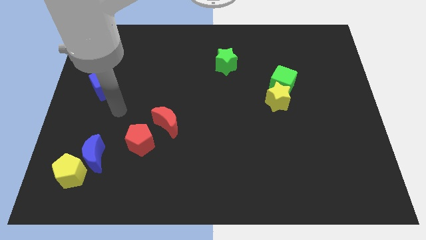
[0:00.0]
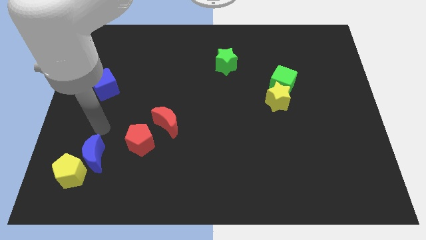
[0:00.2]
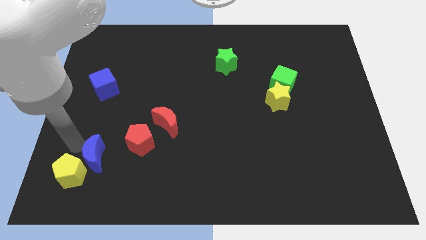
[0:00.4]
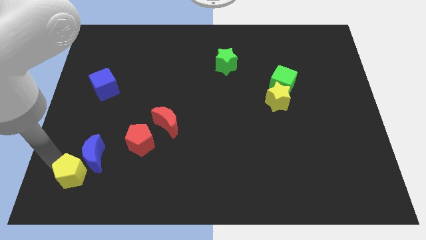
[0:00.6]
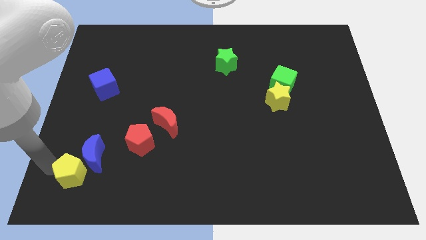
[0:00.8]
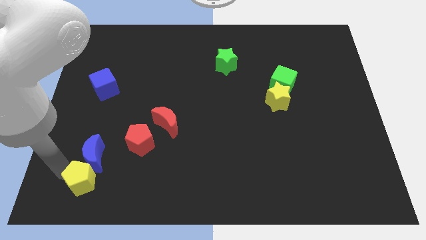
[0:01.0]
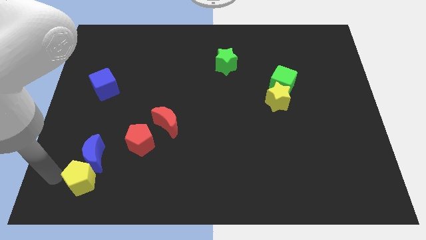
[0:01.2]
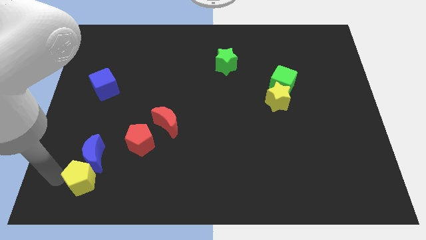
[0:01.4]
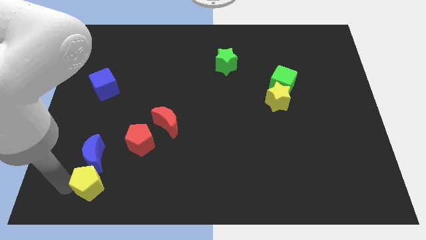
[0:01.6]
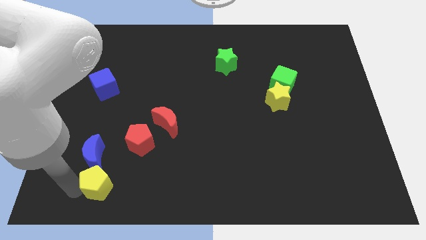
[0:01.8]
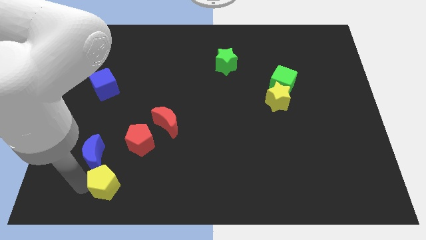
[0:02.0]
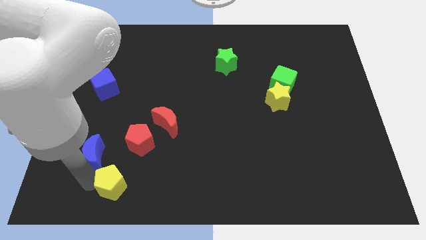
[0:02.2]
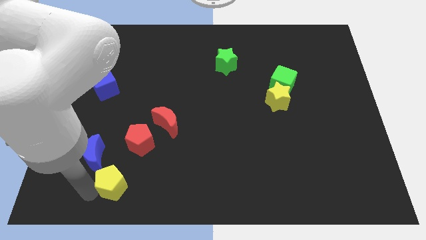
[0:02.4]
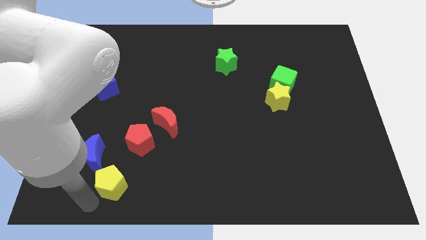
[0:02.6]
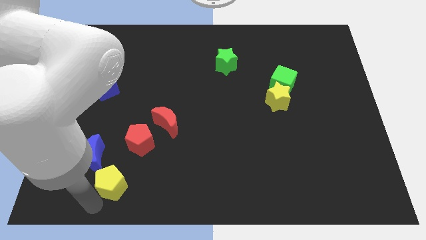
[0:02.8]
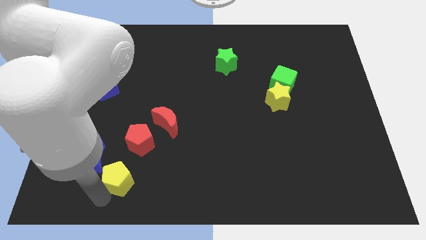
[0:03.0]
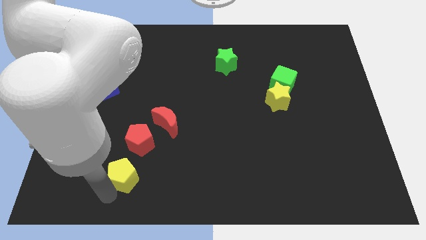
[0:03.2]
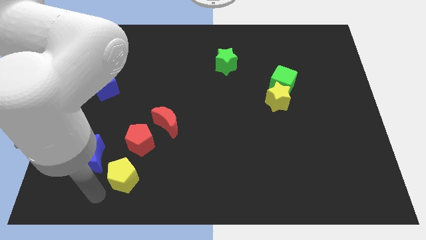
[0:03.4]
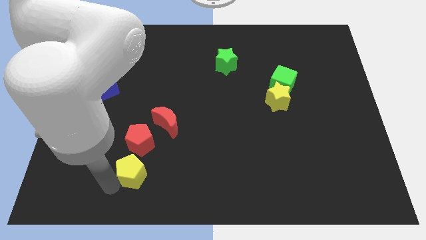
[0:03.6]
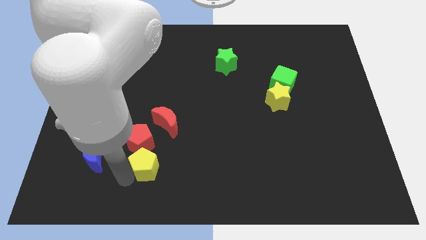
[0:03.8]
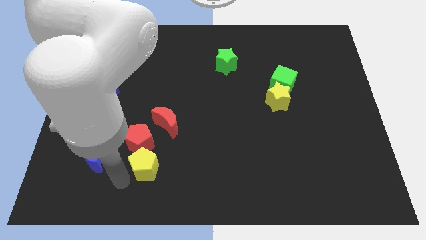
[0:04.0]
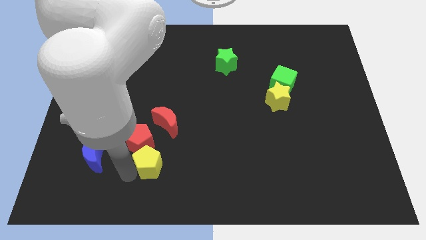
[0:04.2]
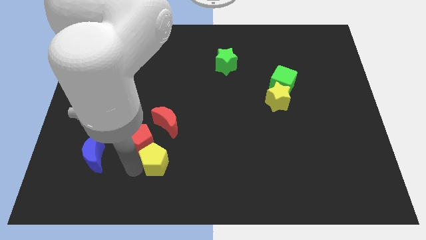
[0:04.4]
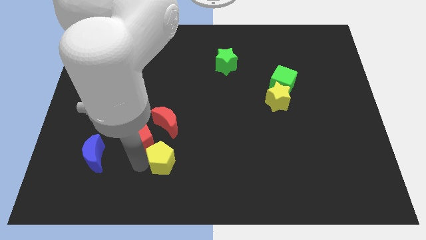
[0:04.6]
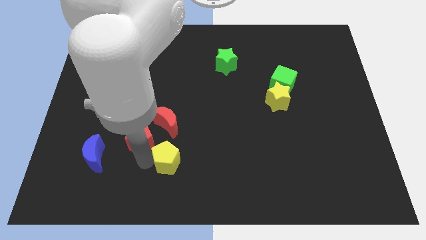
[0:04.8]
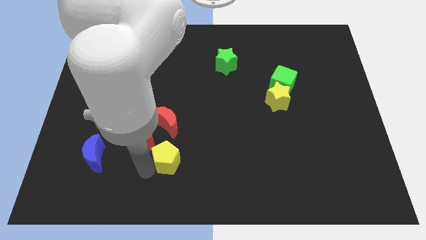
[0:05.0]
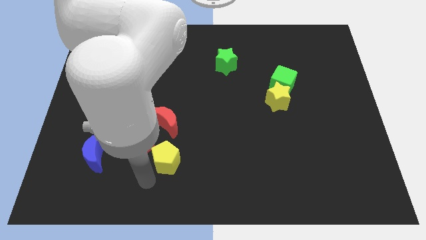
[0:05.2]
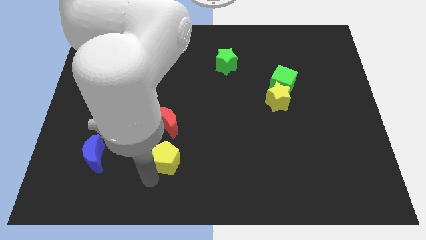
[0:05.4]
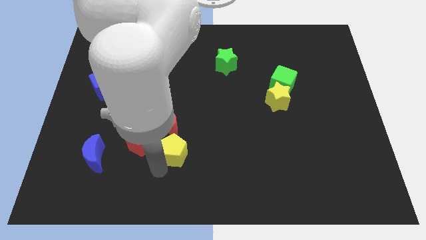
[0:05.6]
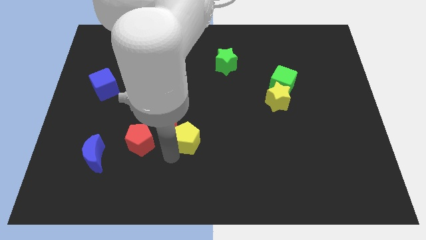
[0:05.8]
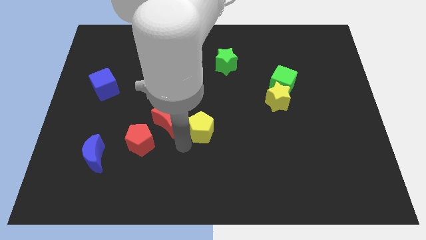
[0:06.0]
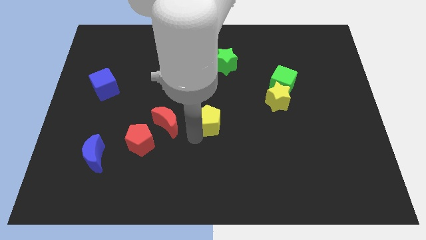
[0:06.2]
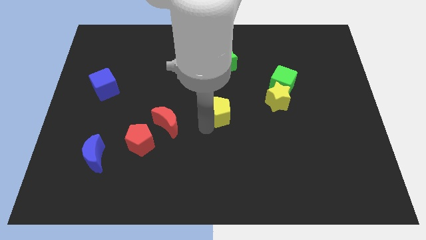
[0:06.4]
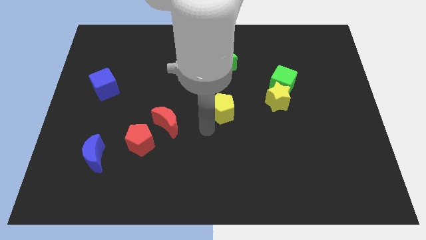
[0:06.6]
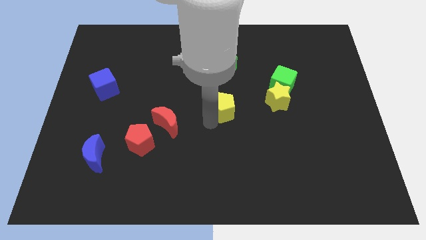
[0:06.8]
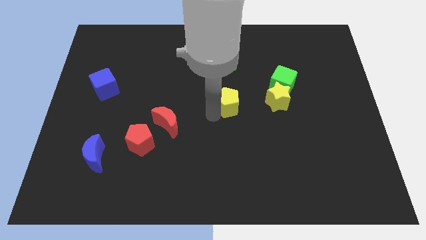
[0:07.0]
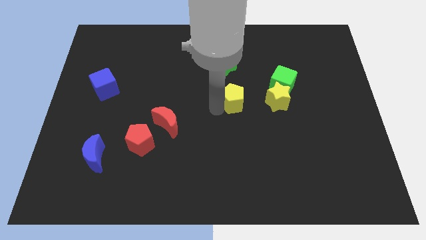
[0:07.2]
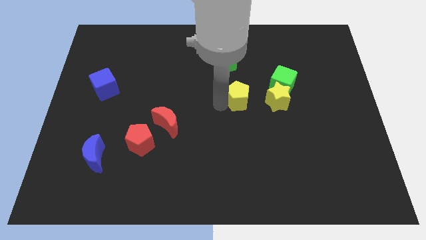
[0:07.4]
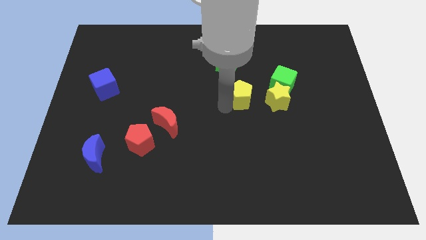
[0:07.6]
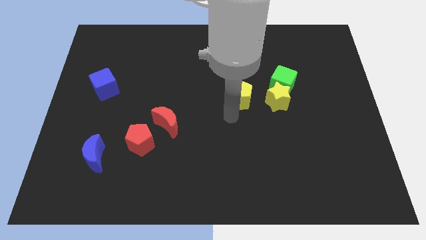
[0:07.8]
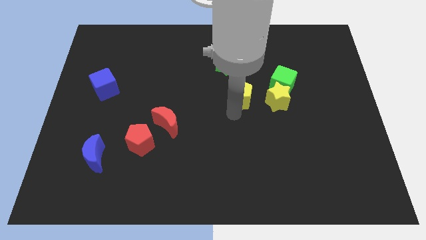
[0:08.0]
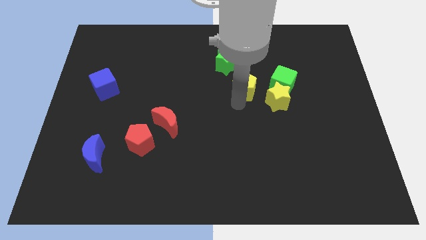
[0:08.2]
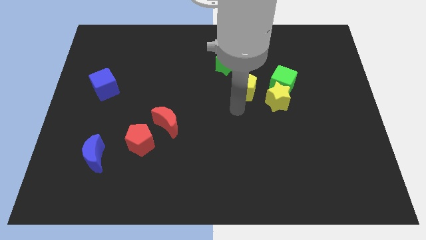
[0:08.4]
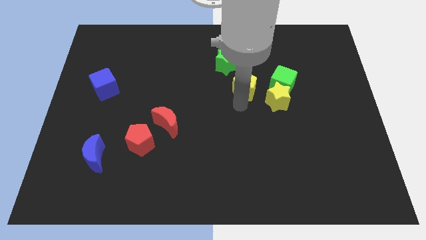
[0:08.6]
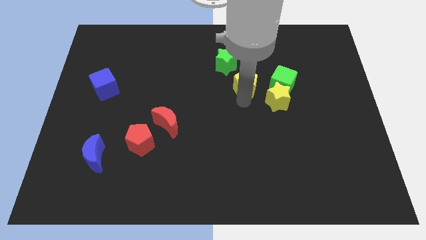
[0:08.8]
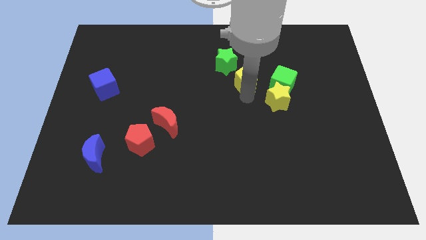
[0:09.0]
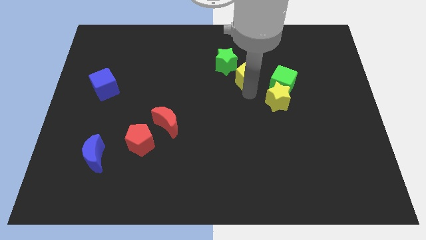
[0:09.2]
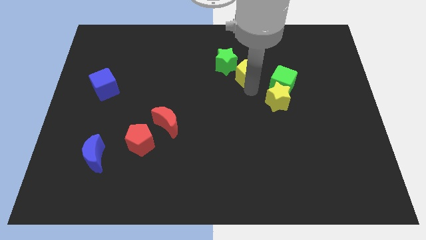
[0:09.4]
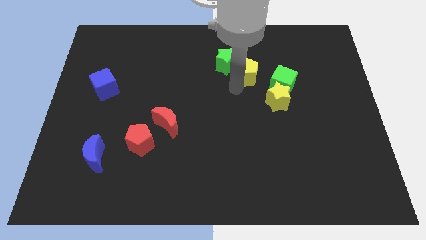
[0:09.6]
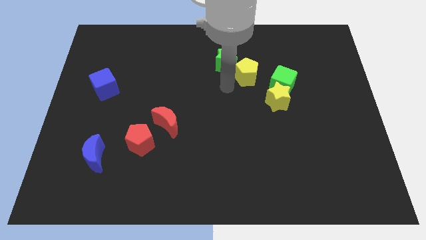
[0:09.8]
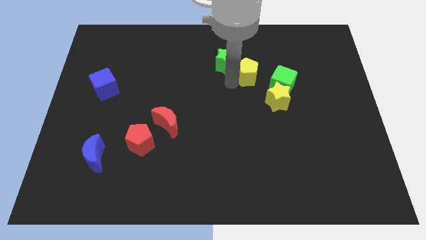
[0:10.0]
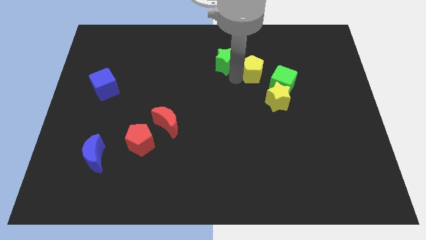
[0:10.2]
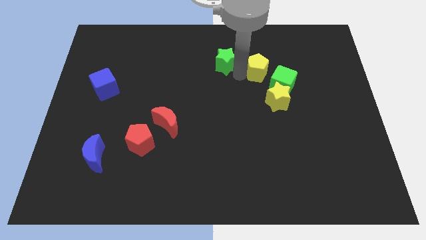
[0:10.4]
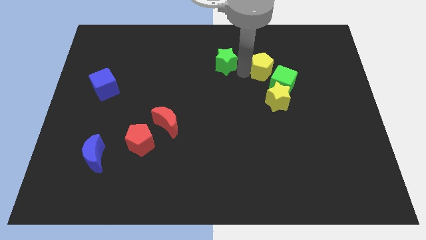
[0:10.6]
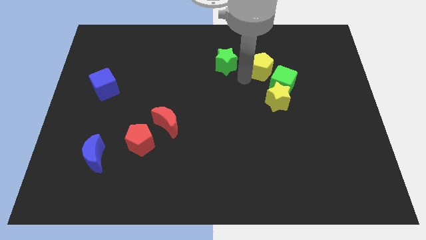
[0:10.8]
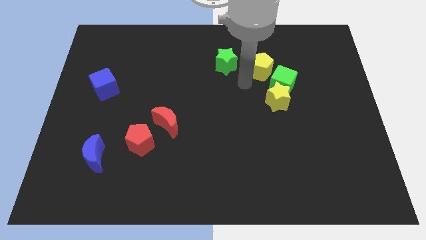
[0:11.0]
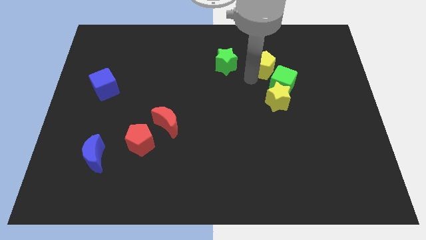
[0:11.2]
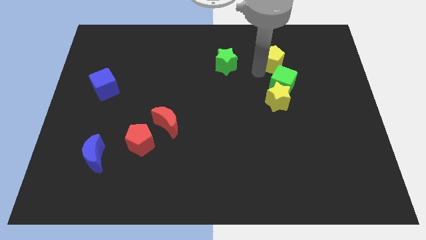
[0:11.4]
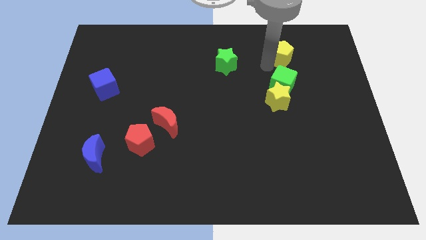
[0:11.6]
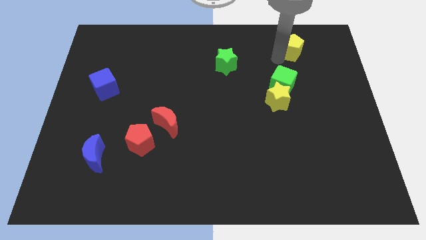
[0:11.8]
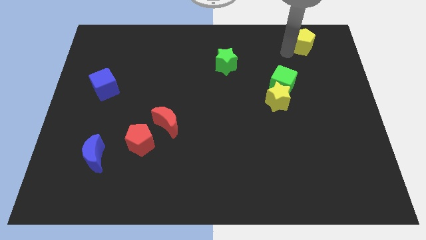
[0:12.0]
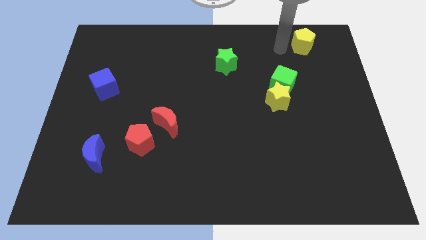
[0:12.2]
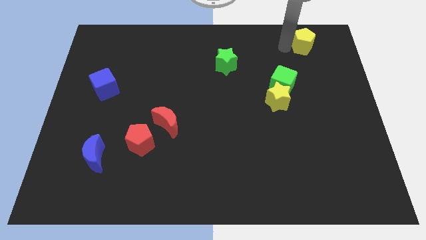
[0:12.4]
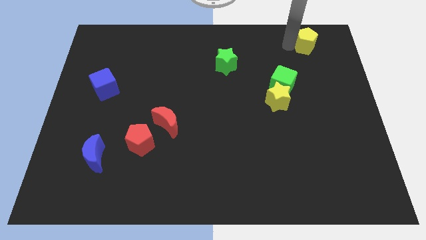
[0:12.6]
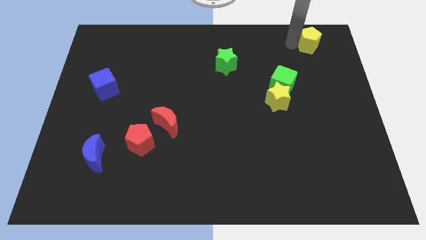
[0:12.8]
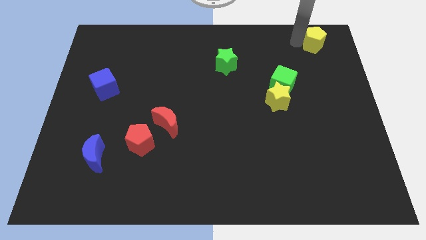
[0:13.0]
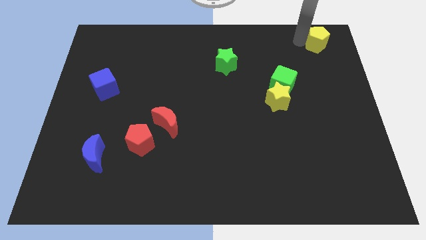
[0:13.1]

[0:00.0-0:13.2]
push the yellow pentagon to the top right of the board
